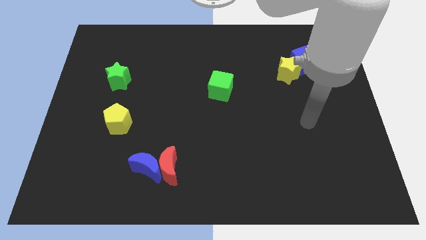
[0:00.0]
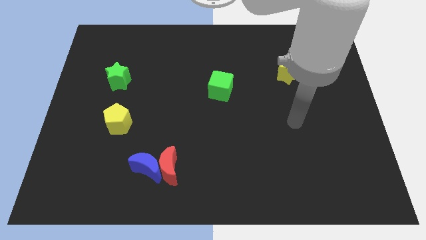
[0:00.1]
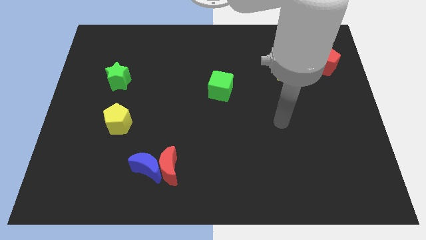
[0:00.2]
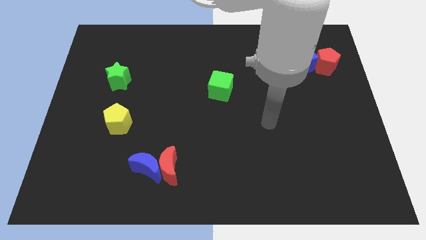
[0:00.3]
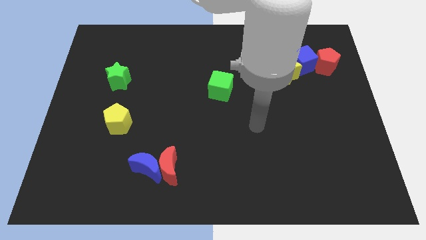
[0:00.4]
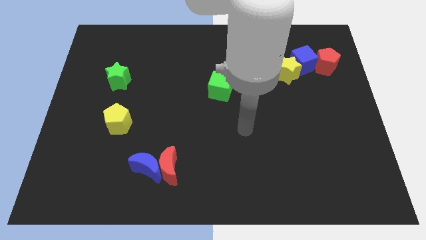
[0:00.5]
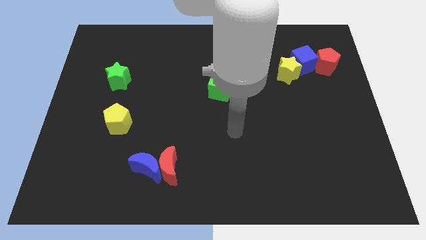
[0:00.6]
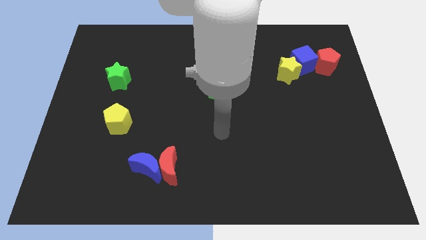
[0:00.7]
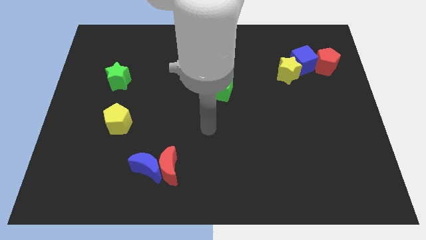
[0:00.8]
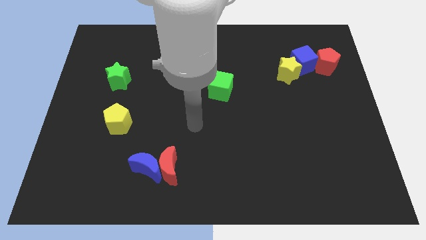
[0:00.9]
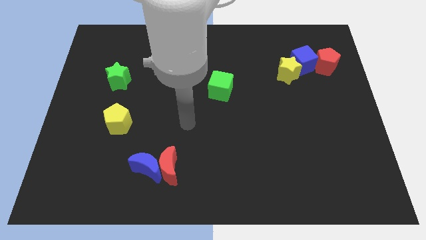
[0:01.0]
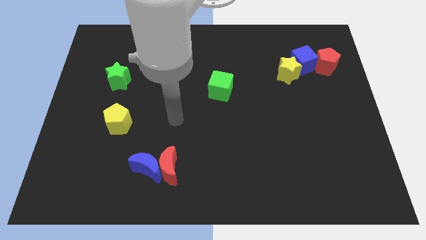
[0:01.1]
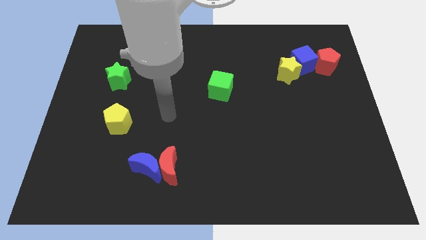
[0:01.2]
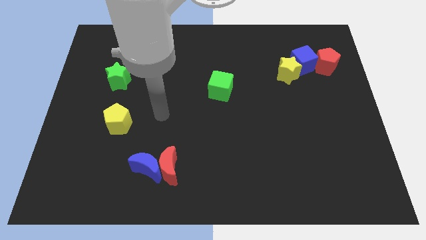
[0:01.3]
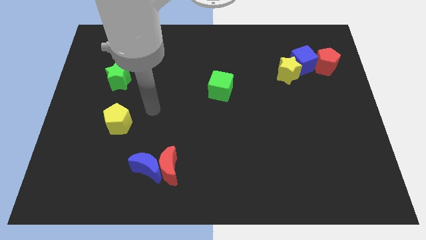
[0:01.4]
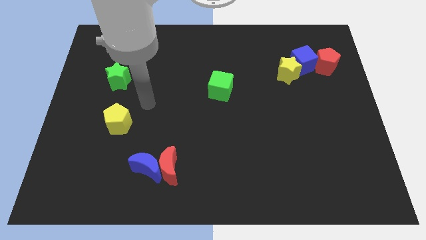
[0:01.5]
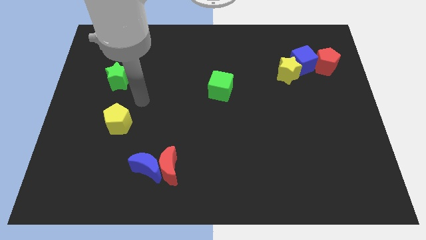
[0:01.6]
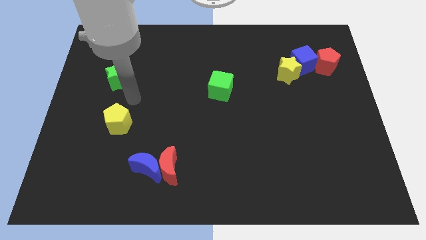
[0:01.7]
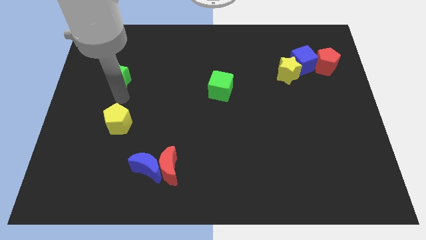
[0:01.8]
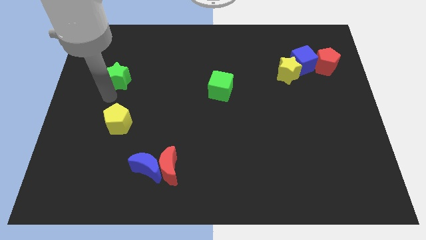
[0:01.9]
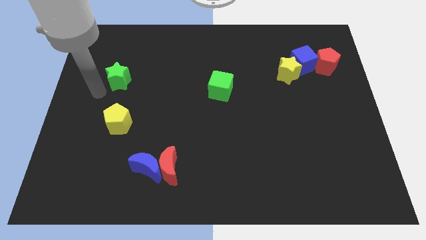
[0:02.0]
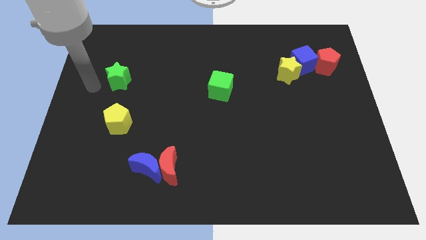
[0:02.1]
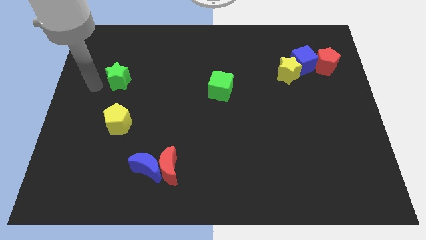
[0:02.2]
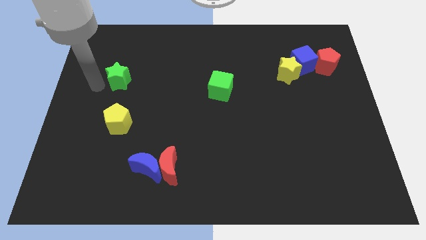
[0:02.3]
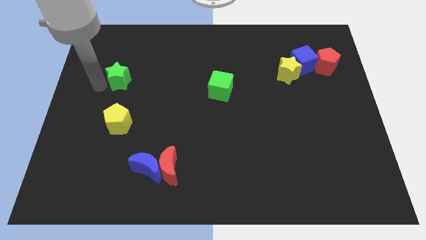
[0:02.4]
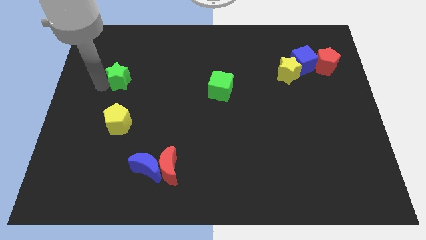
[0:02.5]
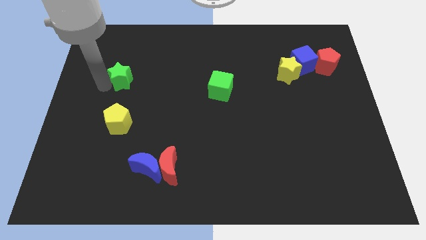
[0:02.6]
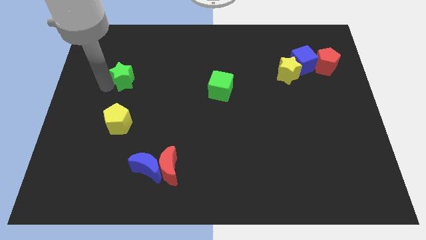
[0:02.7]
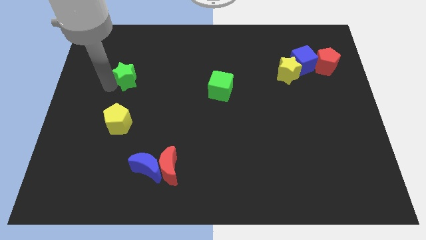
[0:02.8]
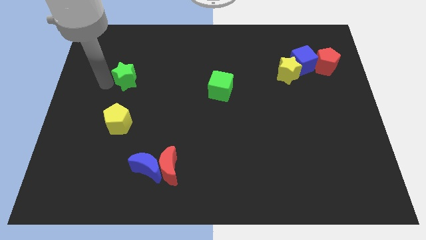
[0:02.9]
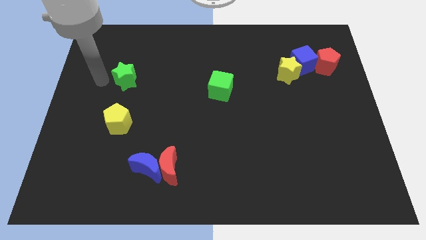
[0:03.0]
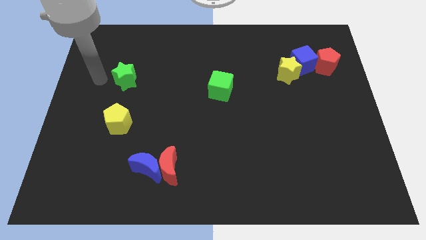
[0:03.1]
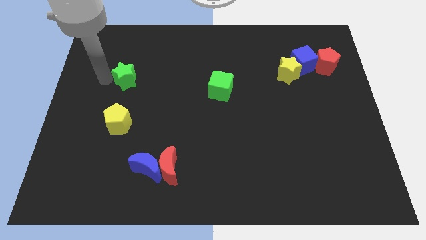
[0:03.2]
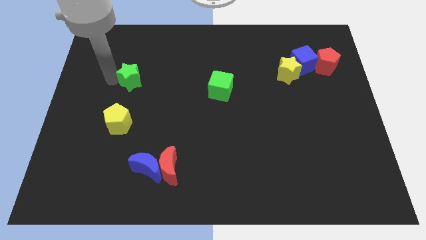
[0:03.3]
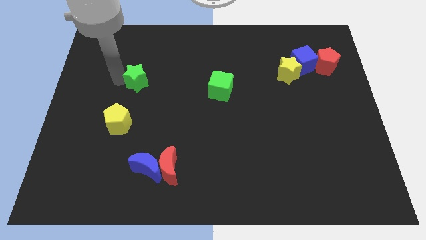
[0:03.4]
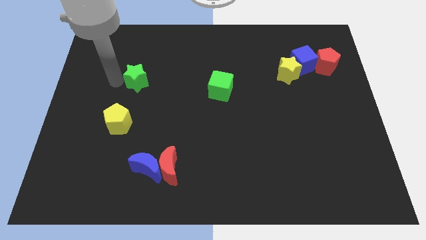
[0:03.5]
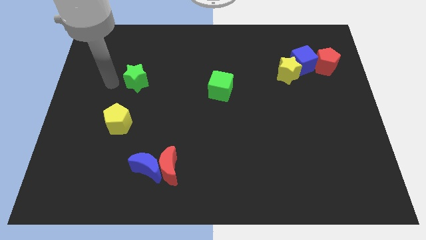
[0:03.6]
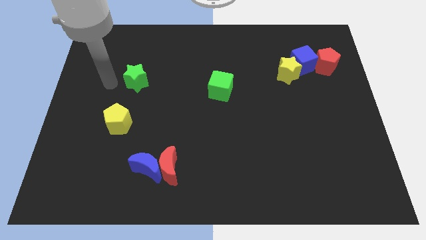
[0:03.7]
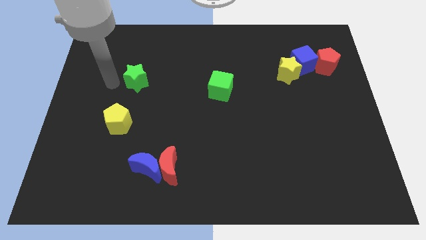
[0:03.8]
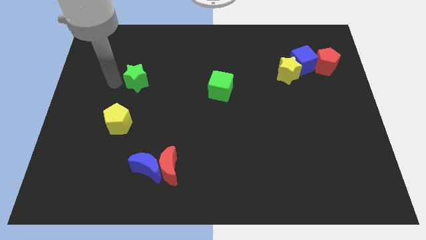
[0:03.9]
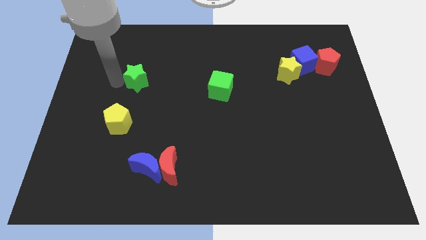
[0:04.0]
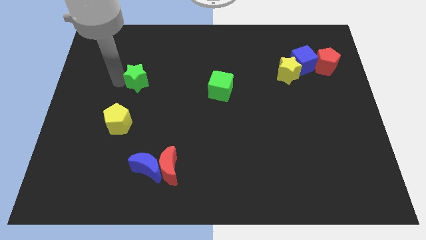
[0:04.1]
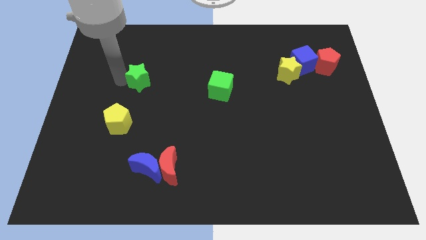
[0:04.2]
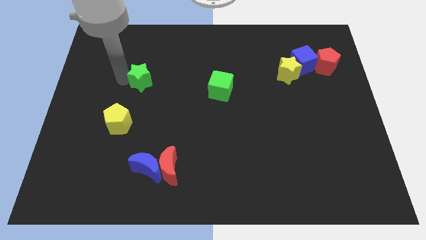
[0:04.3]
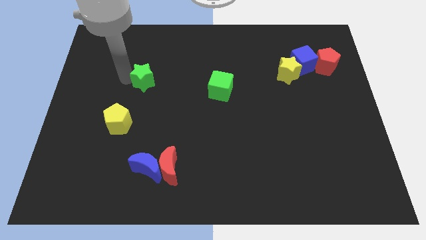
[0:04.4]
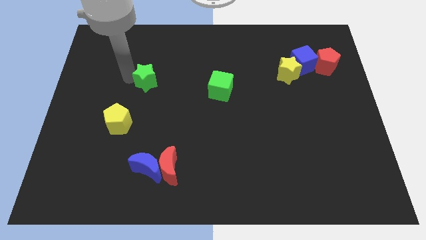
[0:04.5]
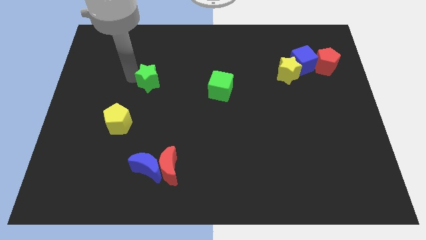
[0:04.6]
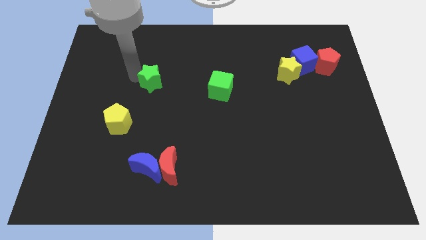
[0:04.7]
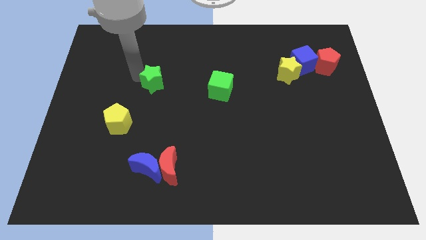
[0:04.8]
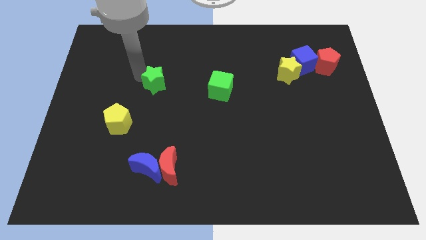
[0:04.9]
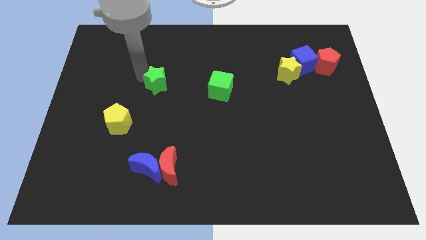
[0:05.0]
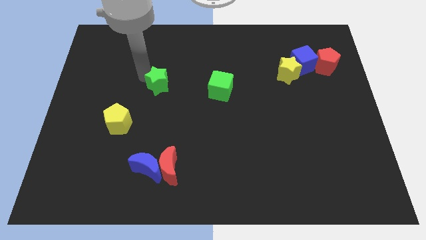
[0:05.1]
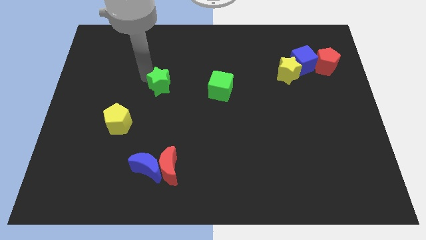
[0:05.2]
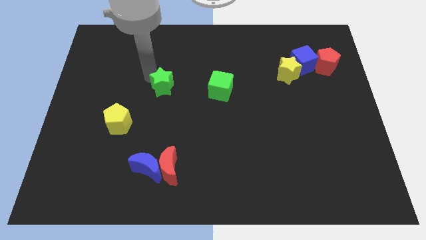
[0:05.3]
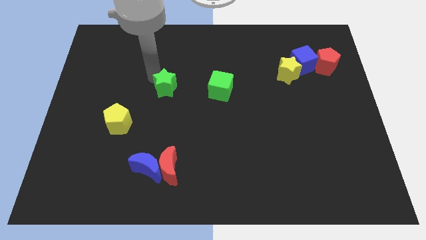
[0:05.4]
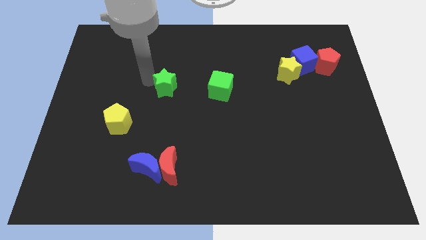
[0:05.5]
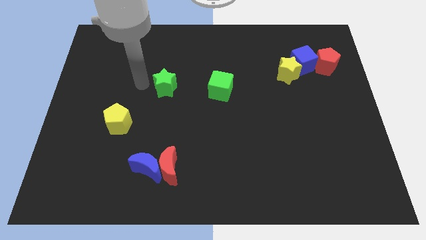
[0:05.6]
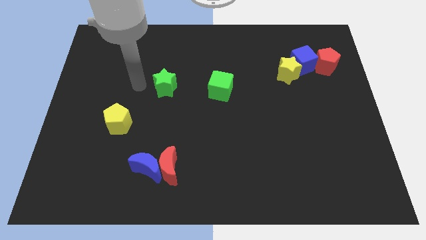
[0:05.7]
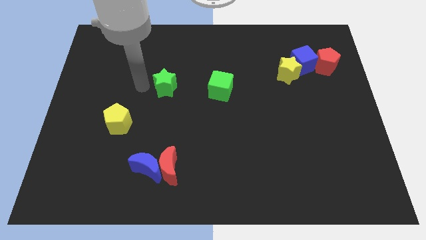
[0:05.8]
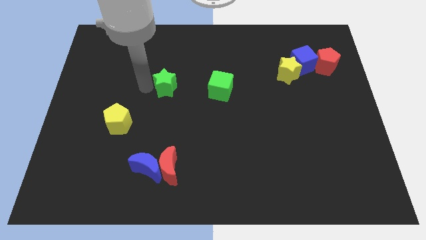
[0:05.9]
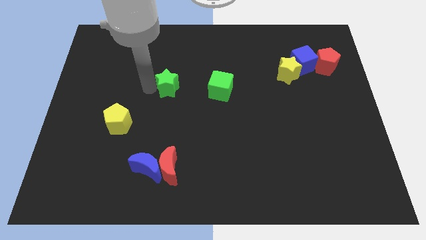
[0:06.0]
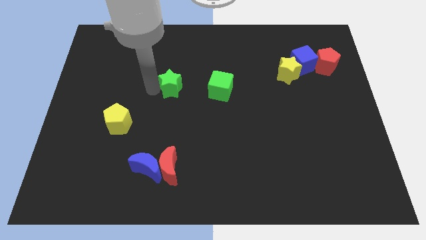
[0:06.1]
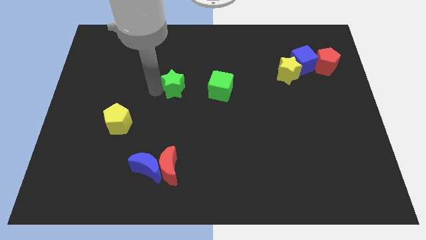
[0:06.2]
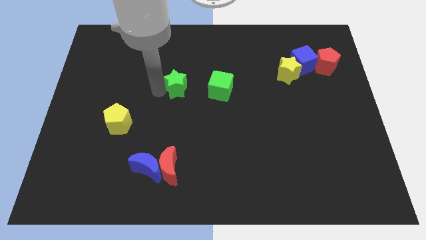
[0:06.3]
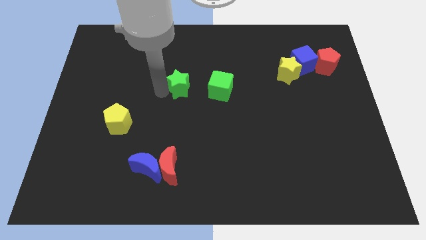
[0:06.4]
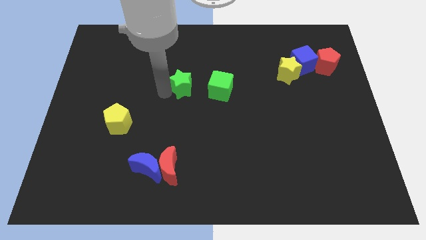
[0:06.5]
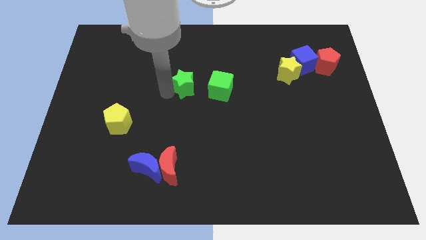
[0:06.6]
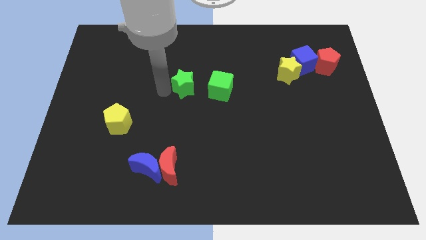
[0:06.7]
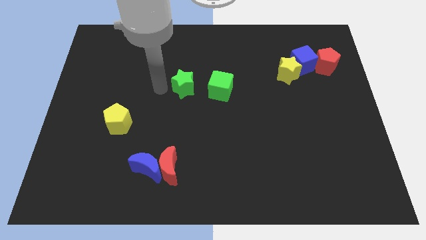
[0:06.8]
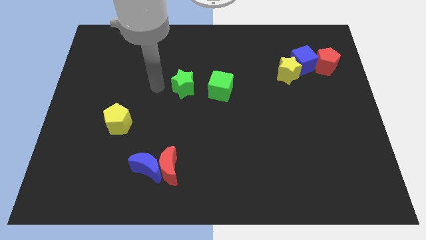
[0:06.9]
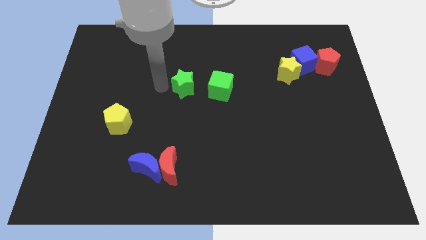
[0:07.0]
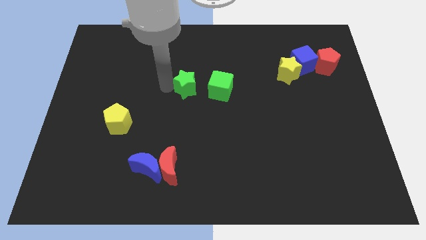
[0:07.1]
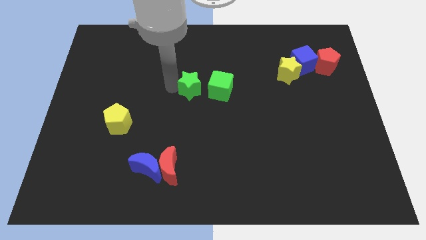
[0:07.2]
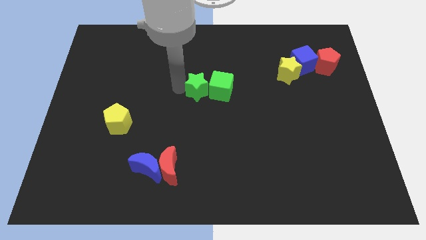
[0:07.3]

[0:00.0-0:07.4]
move the green star to the green cube
